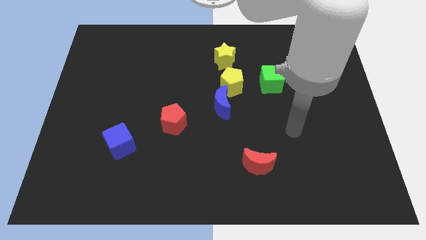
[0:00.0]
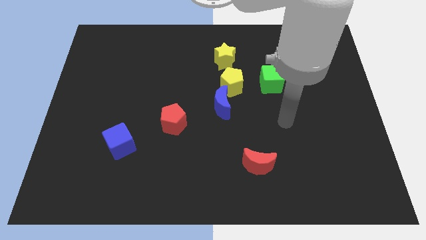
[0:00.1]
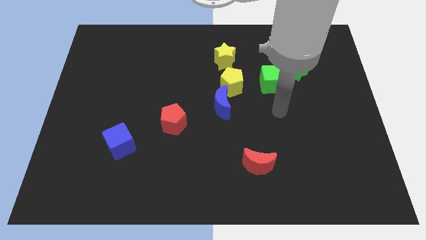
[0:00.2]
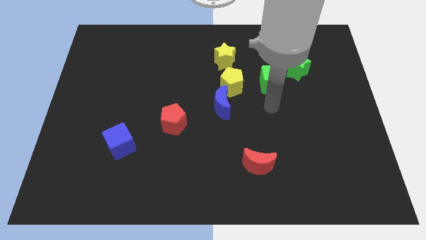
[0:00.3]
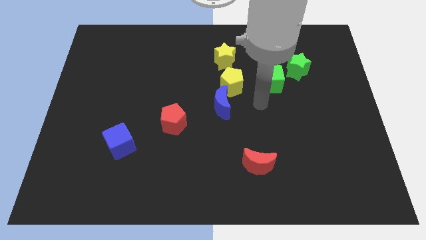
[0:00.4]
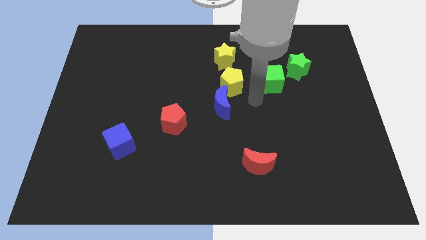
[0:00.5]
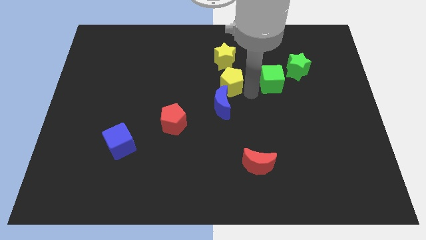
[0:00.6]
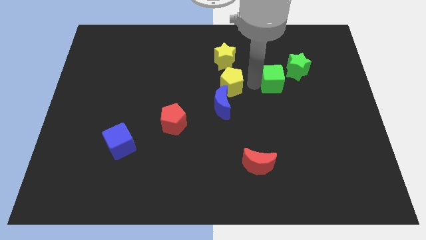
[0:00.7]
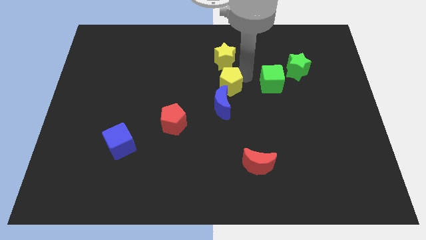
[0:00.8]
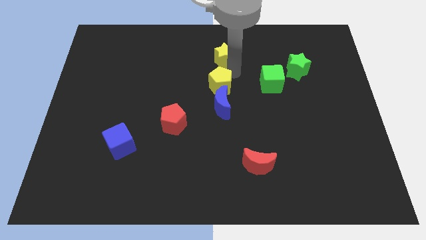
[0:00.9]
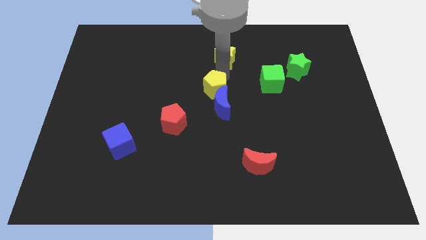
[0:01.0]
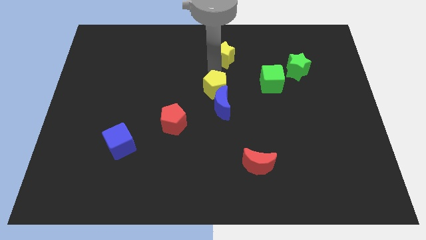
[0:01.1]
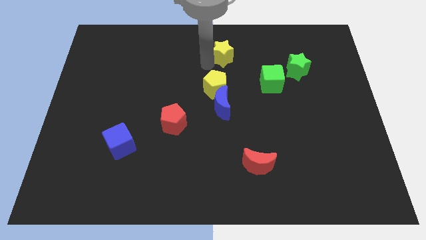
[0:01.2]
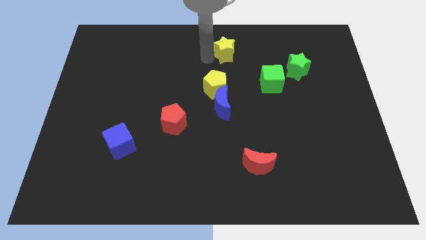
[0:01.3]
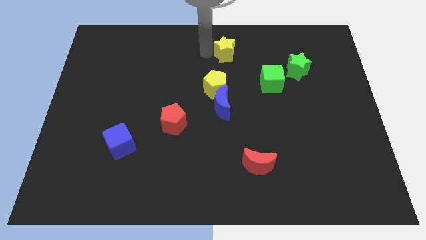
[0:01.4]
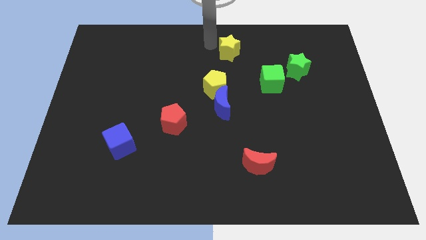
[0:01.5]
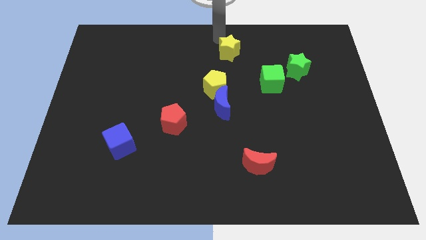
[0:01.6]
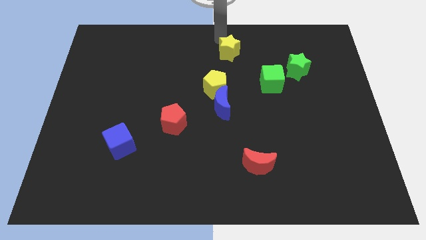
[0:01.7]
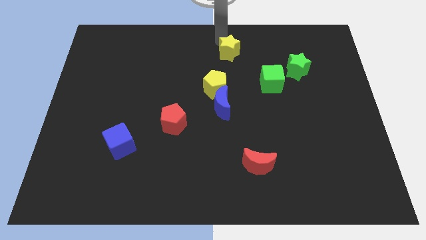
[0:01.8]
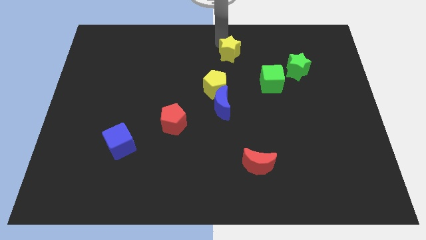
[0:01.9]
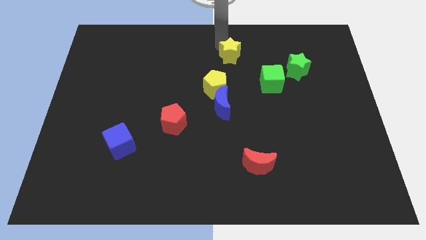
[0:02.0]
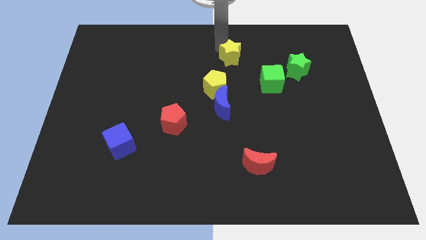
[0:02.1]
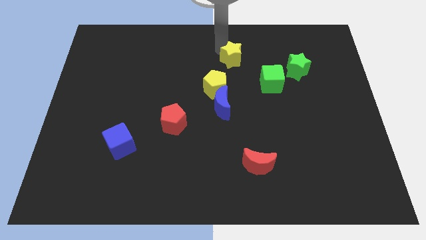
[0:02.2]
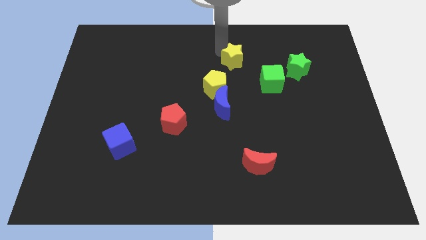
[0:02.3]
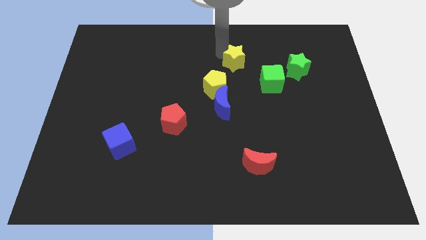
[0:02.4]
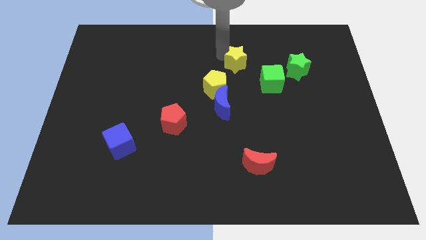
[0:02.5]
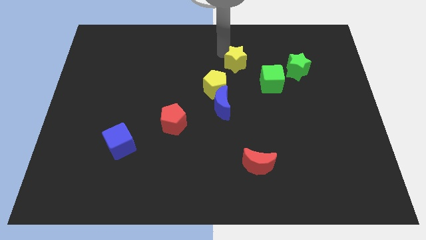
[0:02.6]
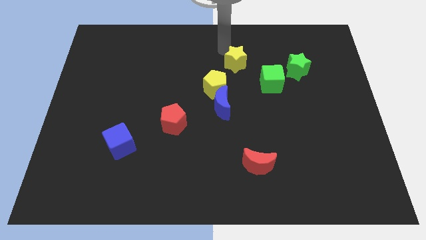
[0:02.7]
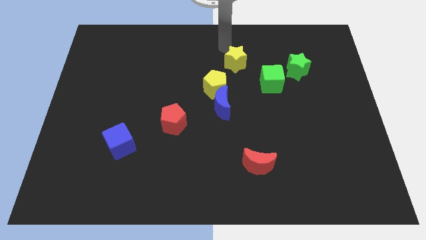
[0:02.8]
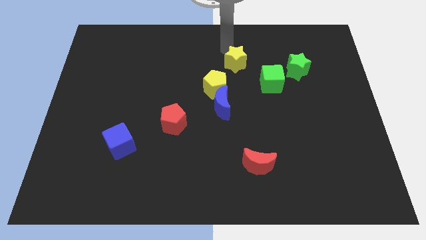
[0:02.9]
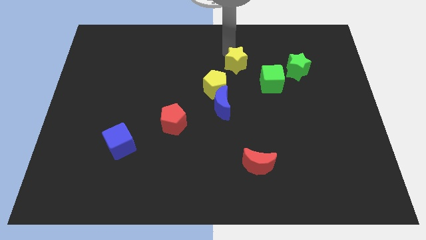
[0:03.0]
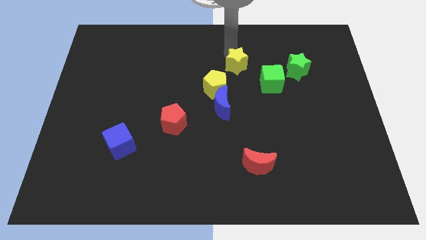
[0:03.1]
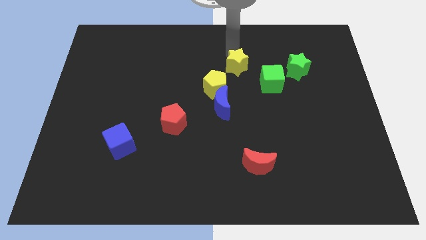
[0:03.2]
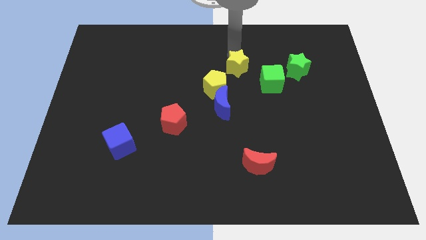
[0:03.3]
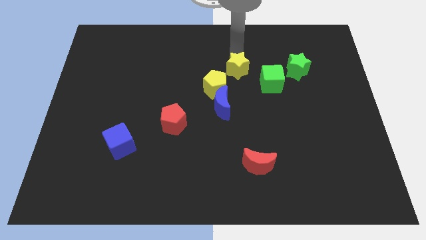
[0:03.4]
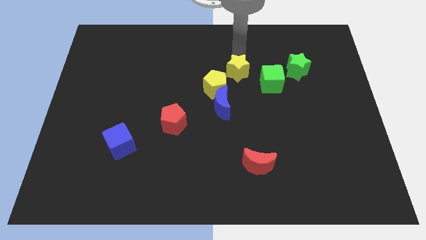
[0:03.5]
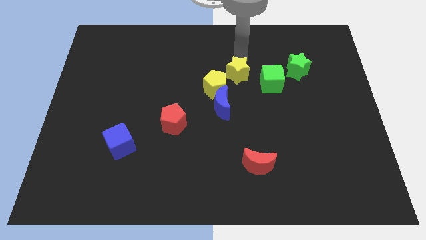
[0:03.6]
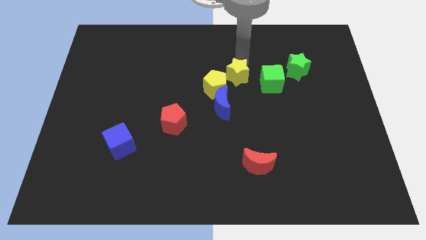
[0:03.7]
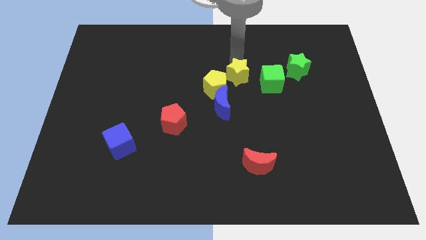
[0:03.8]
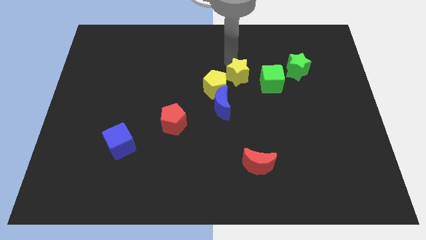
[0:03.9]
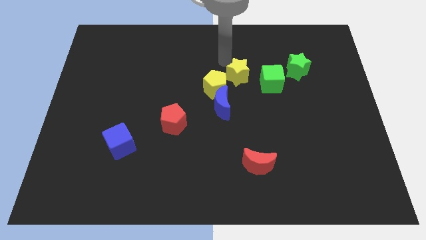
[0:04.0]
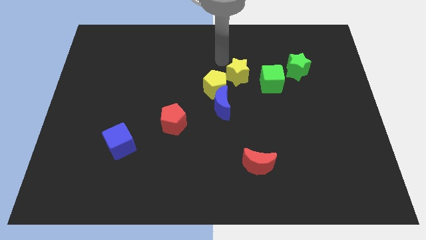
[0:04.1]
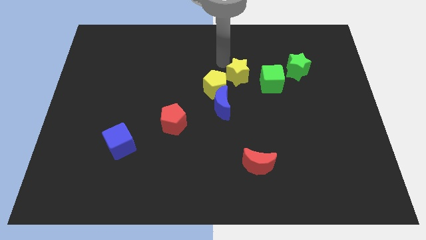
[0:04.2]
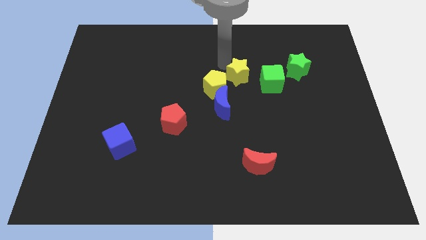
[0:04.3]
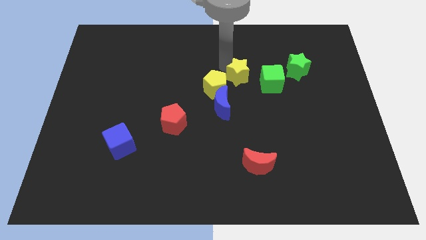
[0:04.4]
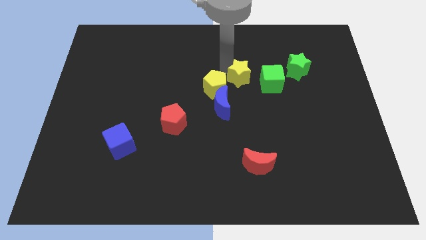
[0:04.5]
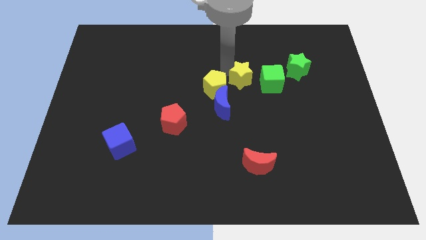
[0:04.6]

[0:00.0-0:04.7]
move the yellow star a little bit down and then to the right

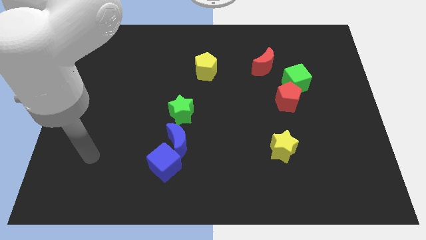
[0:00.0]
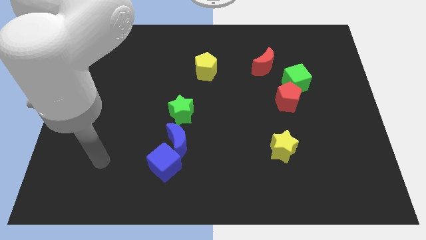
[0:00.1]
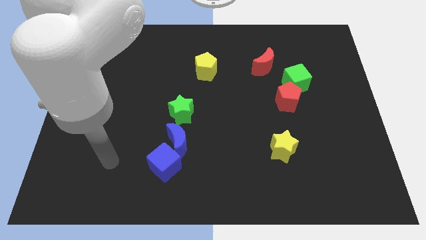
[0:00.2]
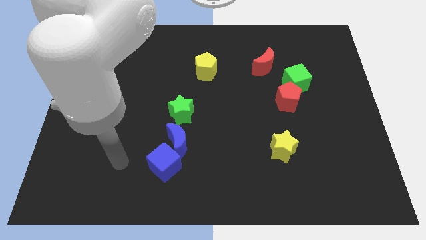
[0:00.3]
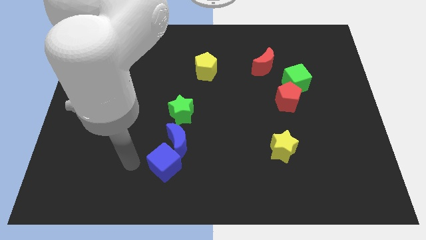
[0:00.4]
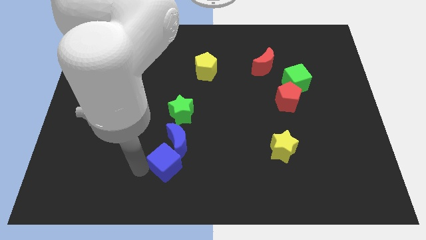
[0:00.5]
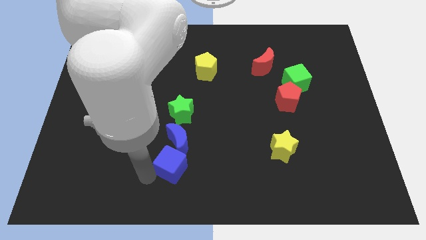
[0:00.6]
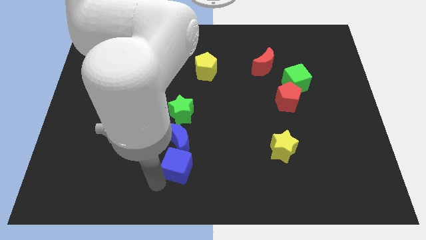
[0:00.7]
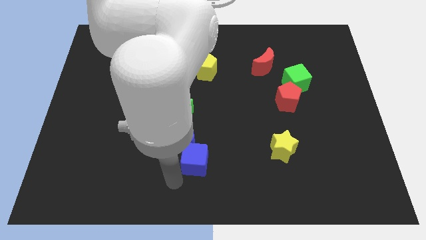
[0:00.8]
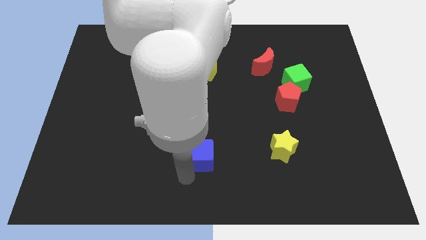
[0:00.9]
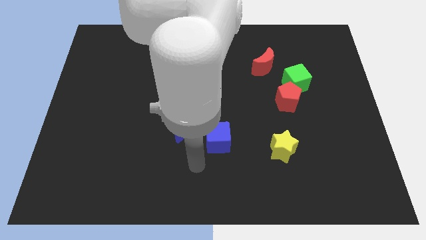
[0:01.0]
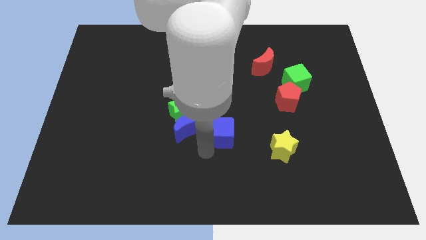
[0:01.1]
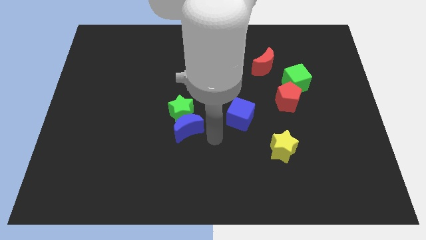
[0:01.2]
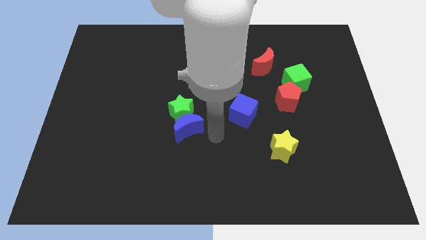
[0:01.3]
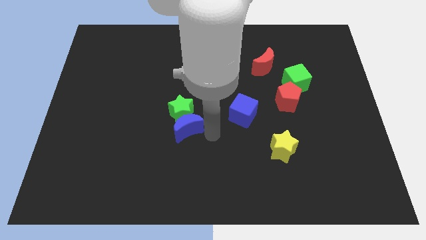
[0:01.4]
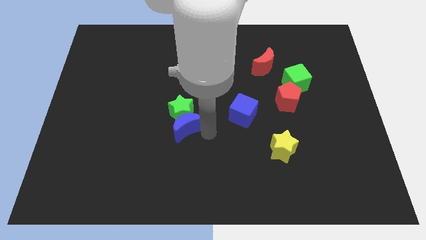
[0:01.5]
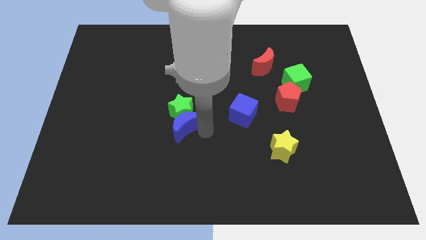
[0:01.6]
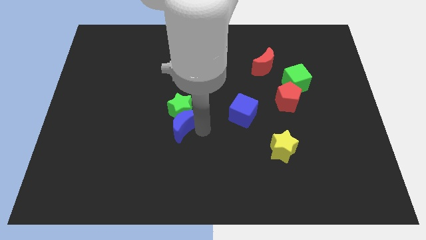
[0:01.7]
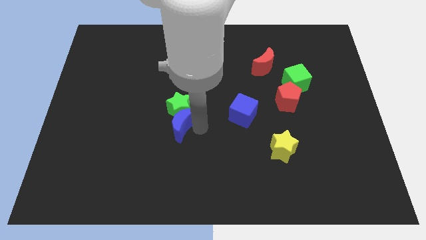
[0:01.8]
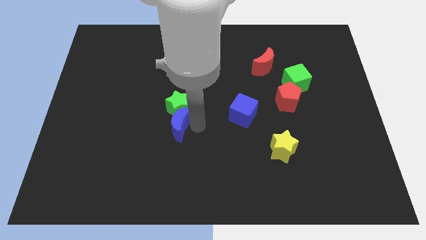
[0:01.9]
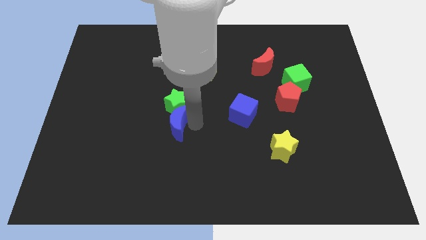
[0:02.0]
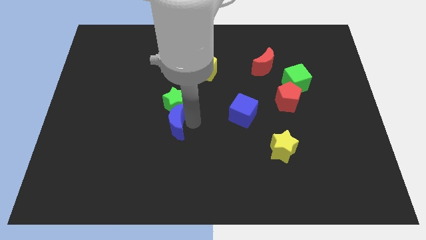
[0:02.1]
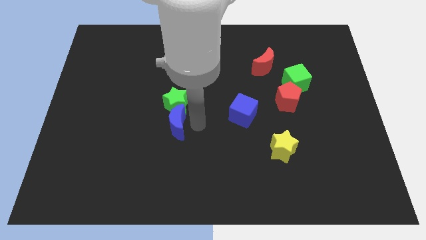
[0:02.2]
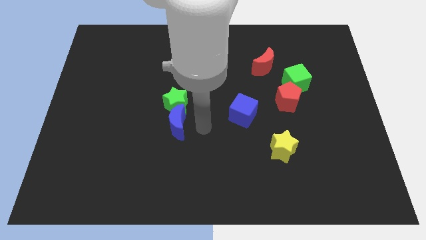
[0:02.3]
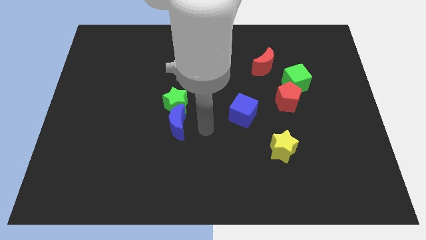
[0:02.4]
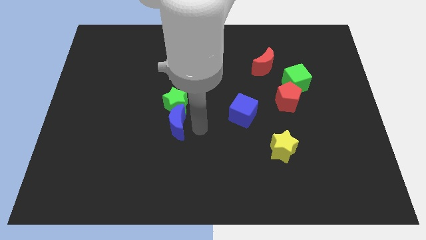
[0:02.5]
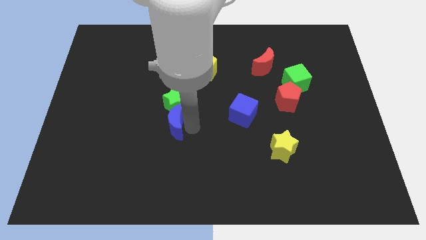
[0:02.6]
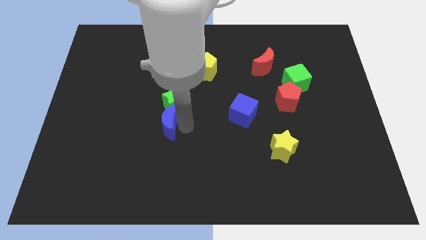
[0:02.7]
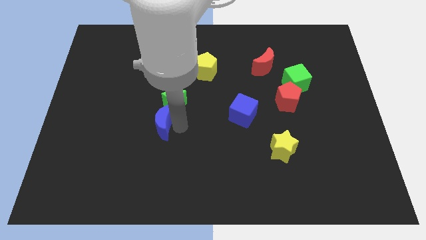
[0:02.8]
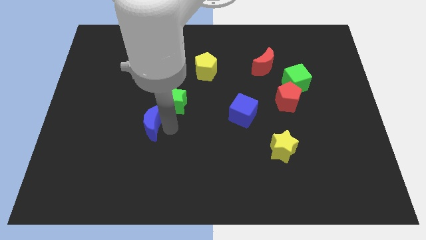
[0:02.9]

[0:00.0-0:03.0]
slide the blue moon a little bit upwards and to the left diagonally

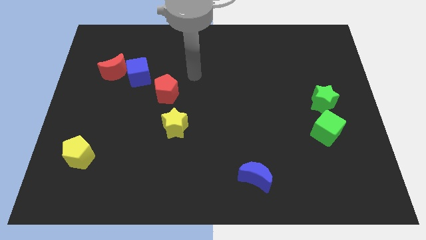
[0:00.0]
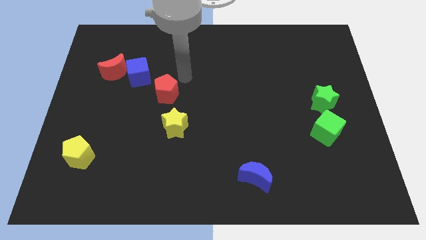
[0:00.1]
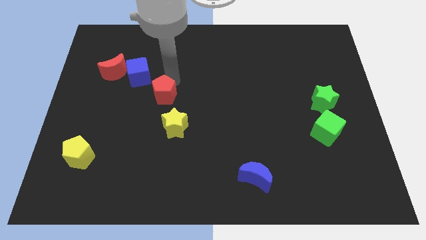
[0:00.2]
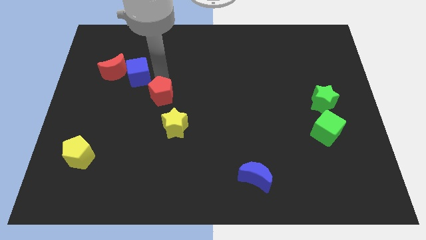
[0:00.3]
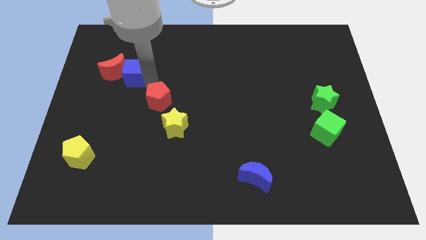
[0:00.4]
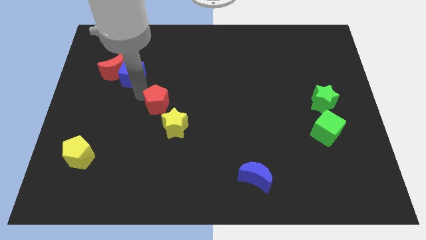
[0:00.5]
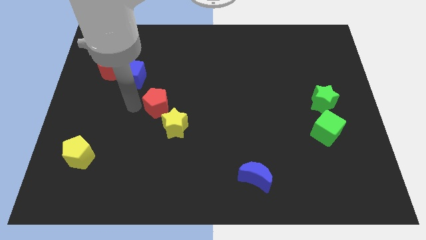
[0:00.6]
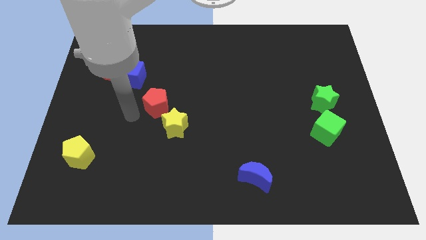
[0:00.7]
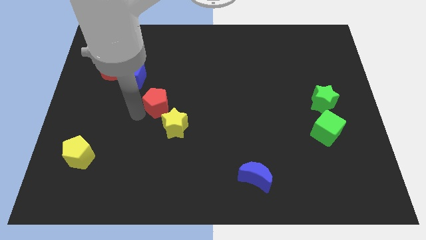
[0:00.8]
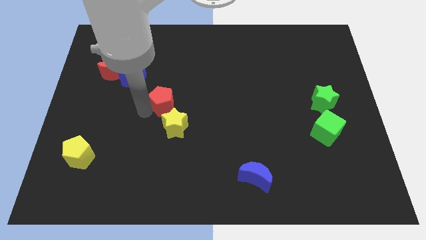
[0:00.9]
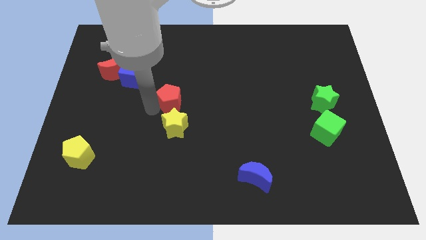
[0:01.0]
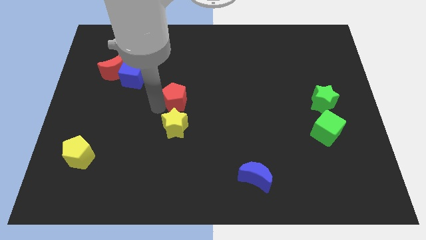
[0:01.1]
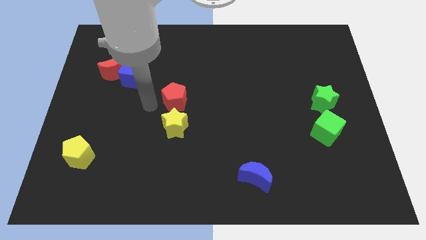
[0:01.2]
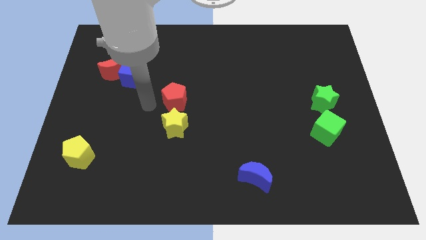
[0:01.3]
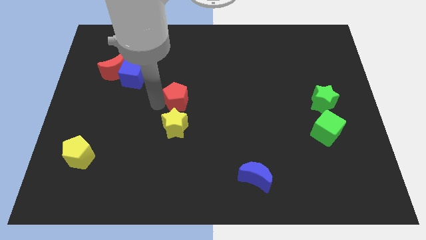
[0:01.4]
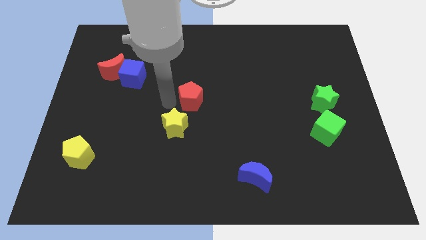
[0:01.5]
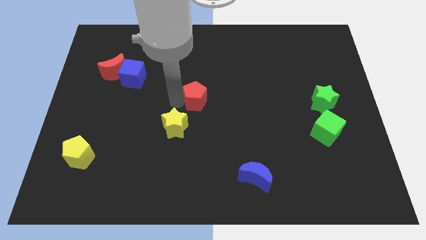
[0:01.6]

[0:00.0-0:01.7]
slide the red pentagon right a little
